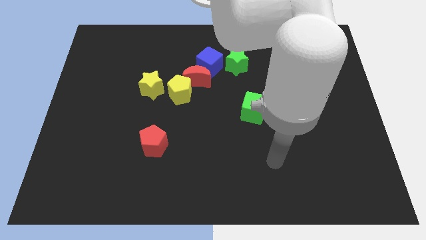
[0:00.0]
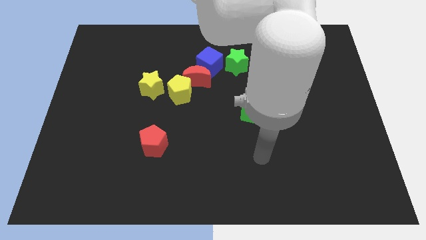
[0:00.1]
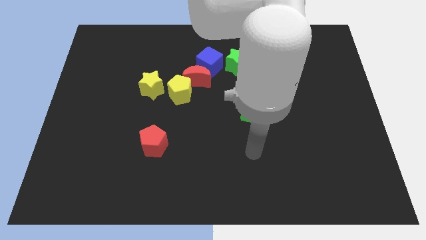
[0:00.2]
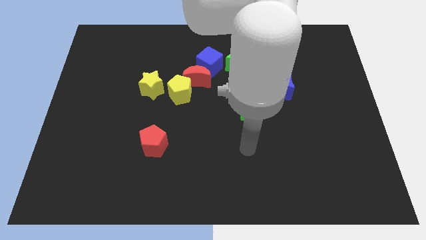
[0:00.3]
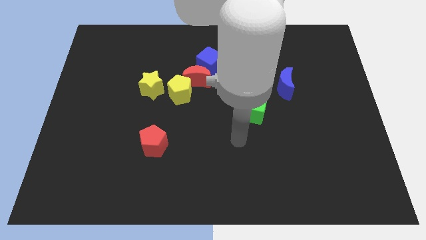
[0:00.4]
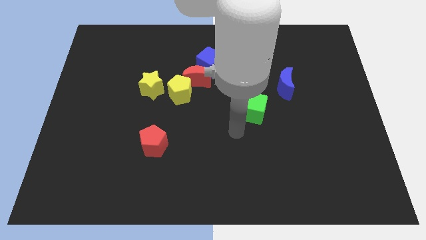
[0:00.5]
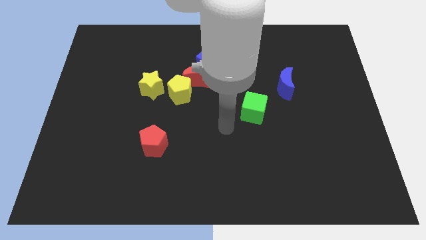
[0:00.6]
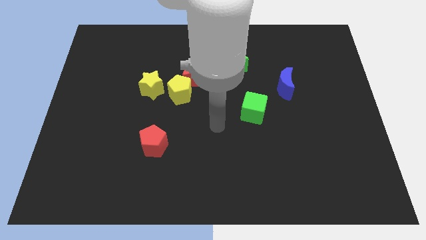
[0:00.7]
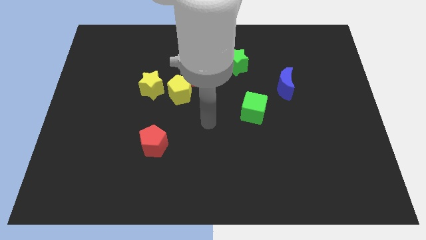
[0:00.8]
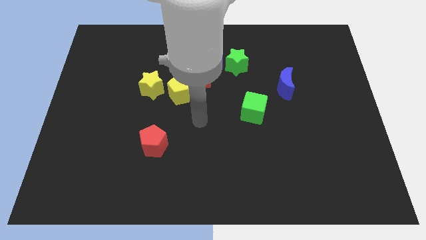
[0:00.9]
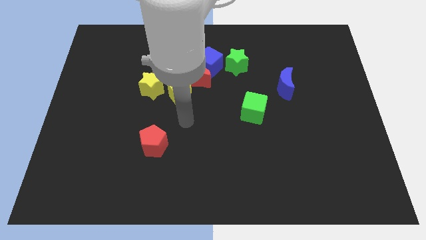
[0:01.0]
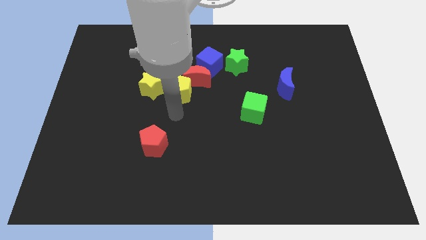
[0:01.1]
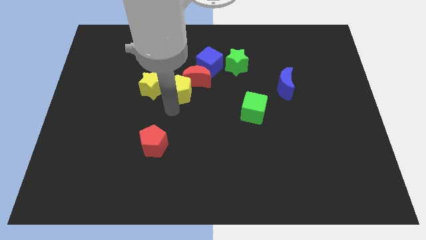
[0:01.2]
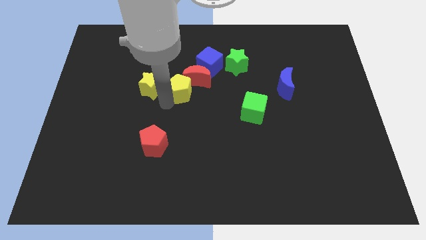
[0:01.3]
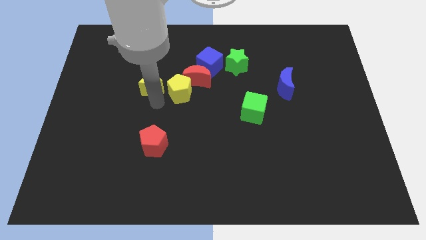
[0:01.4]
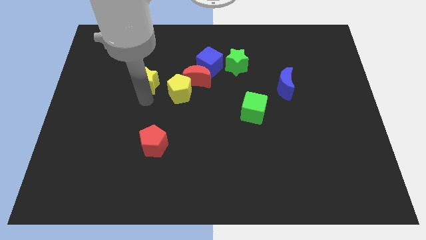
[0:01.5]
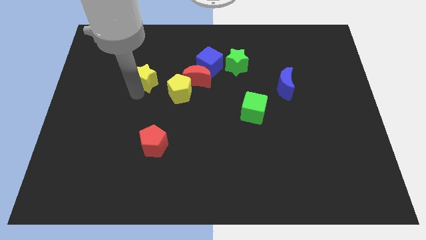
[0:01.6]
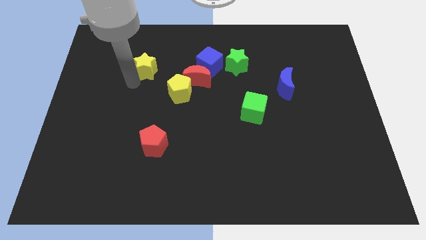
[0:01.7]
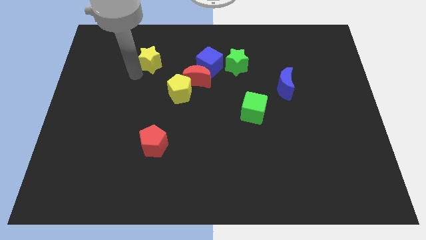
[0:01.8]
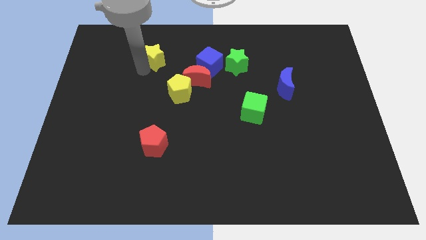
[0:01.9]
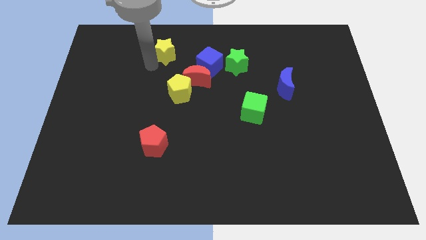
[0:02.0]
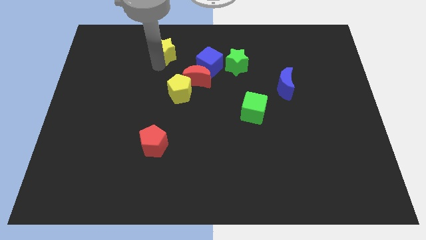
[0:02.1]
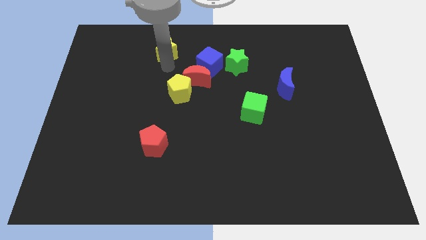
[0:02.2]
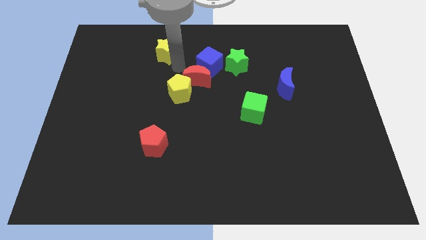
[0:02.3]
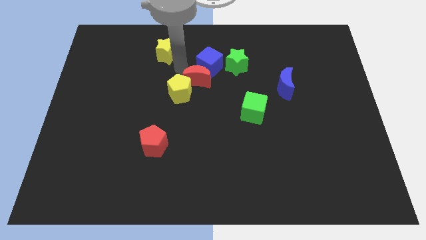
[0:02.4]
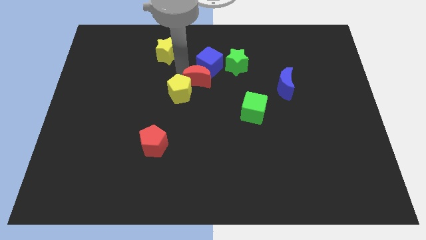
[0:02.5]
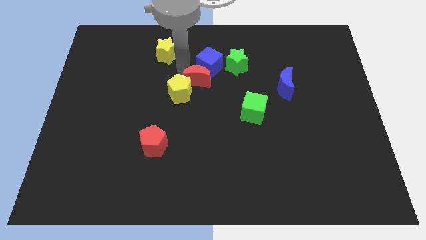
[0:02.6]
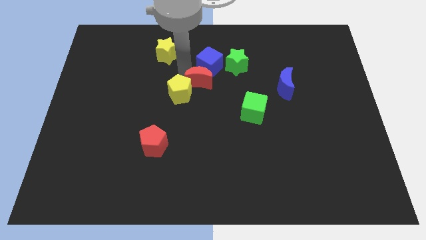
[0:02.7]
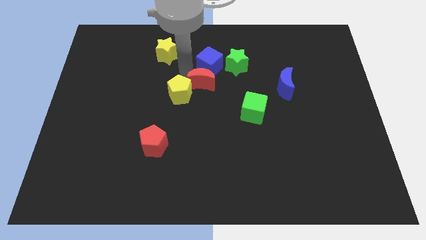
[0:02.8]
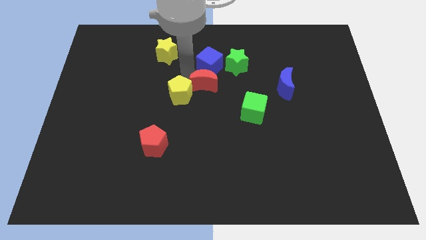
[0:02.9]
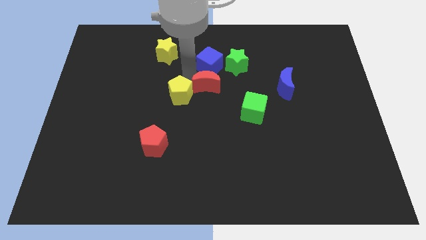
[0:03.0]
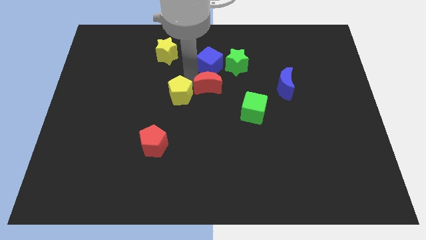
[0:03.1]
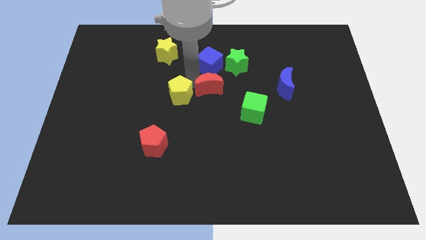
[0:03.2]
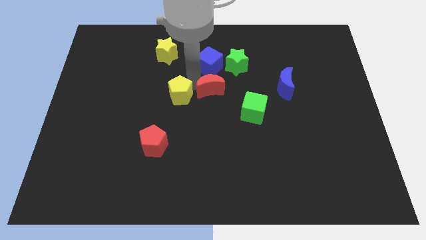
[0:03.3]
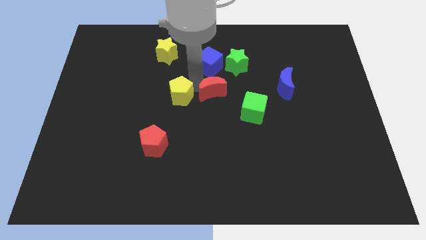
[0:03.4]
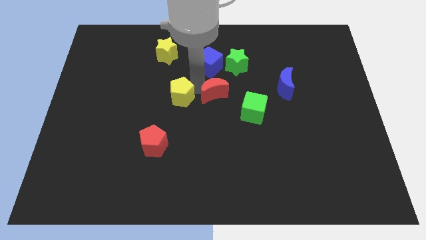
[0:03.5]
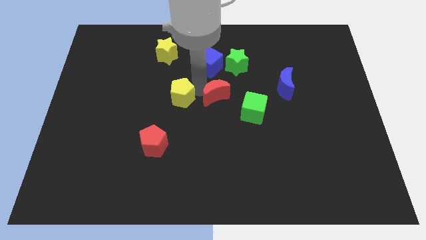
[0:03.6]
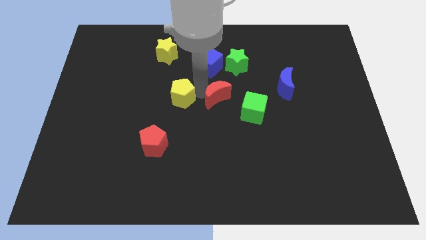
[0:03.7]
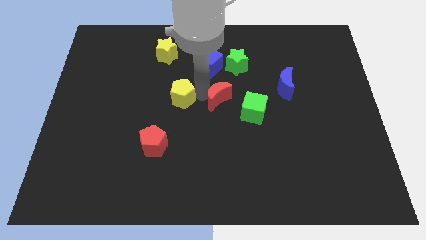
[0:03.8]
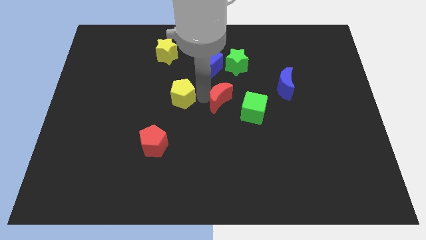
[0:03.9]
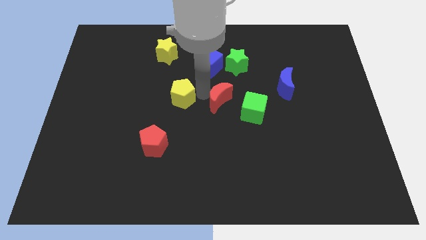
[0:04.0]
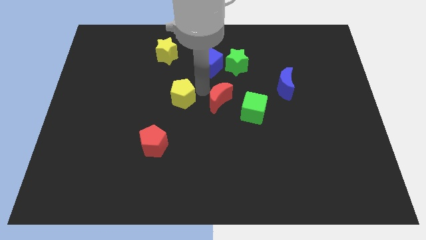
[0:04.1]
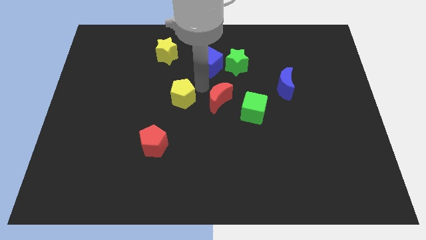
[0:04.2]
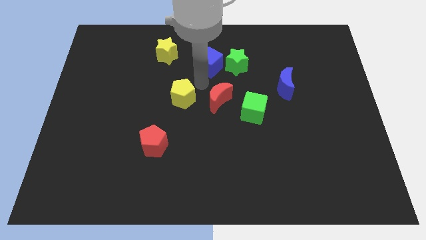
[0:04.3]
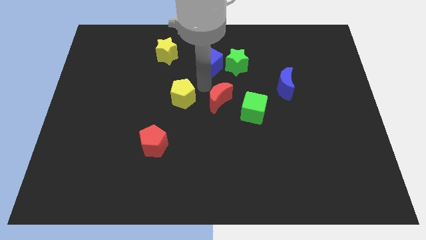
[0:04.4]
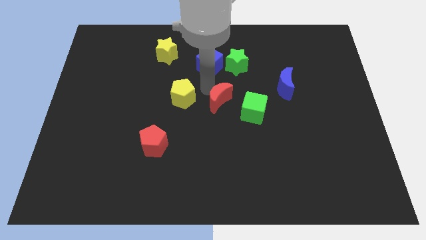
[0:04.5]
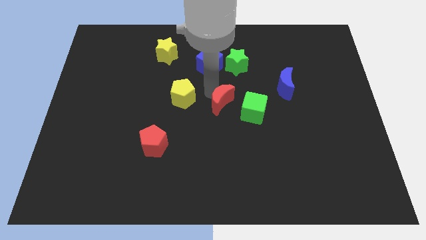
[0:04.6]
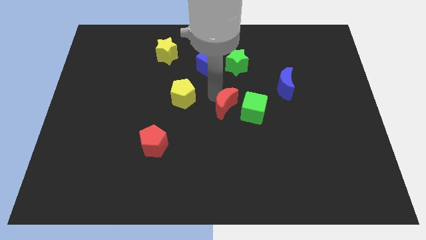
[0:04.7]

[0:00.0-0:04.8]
separate the red moon from the yellow pentagon and blue cube

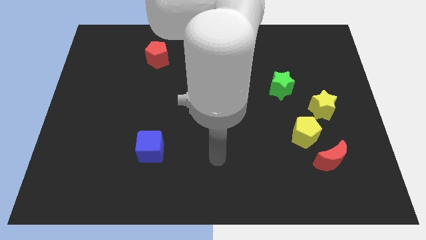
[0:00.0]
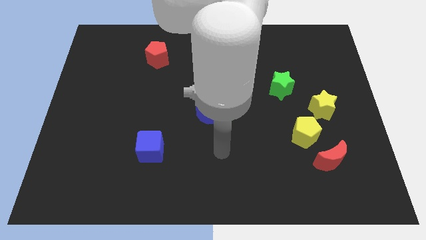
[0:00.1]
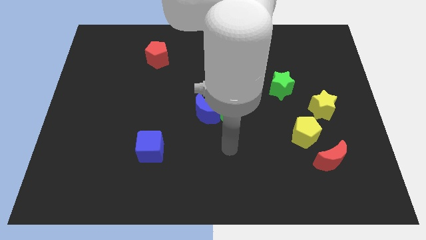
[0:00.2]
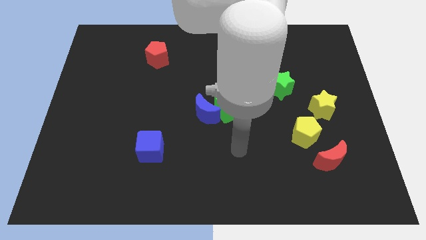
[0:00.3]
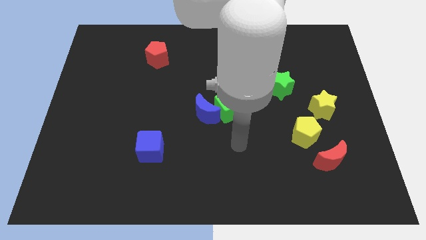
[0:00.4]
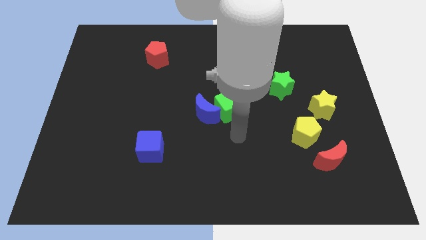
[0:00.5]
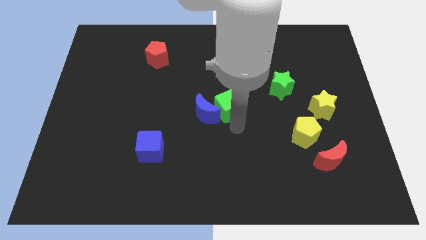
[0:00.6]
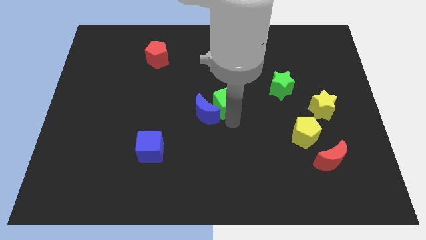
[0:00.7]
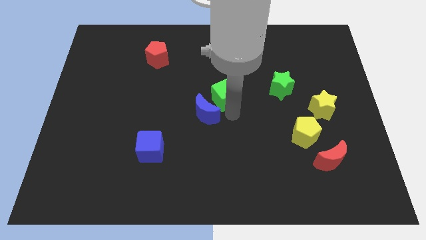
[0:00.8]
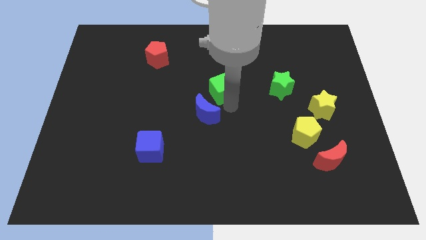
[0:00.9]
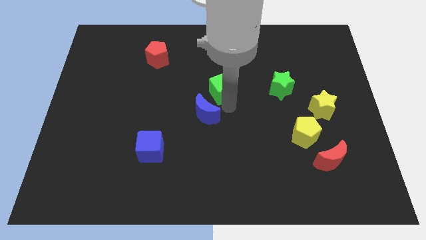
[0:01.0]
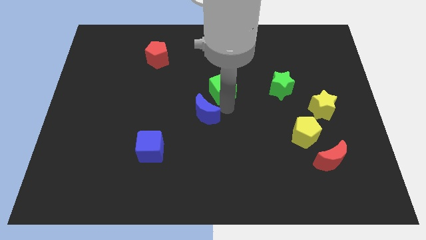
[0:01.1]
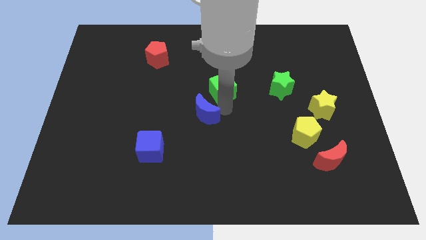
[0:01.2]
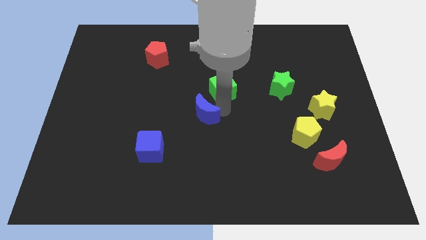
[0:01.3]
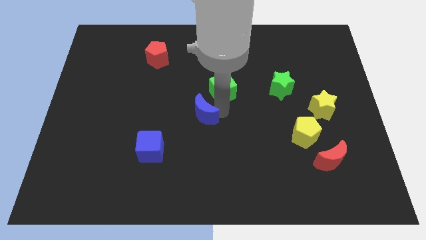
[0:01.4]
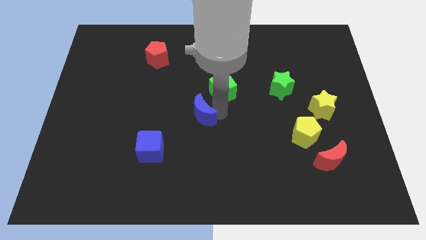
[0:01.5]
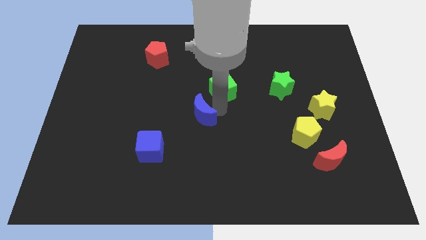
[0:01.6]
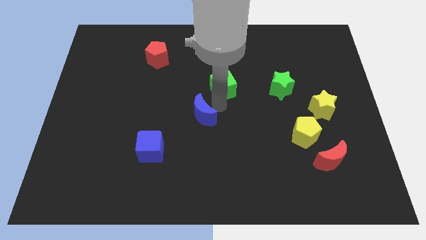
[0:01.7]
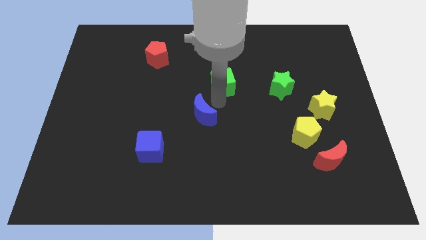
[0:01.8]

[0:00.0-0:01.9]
separate the blue moon from the green cube

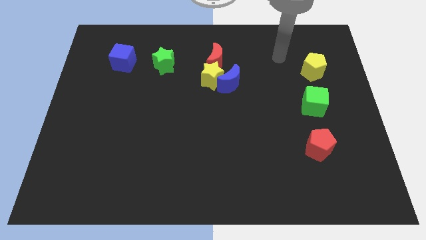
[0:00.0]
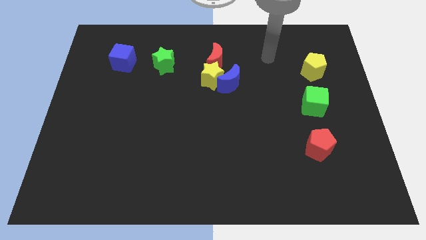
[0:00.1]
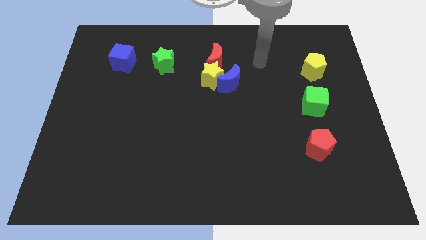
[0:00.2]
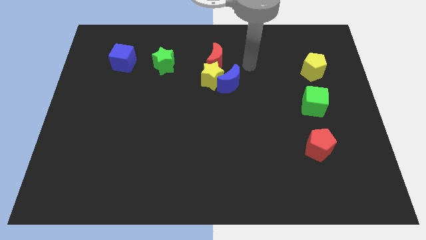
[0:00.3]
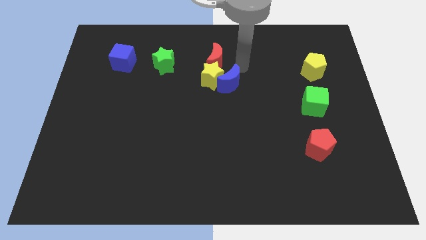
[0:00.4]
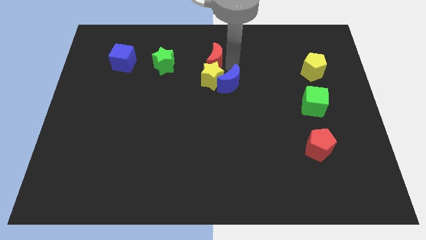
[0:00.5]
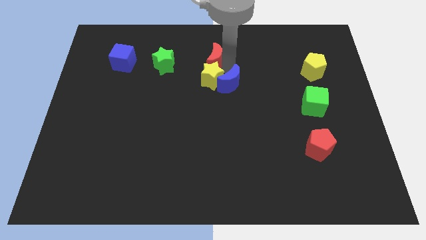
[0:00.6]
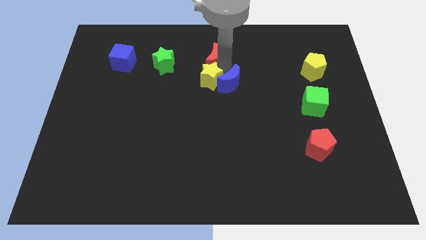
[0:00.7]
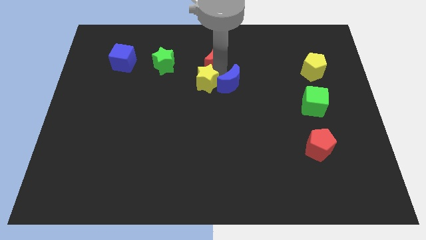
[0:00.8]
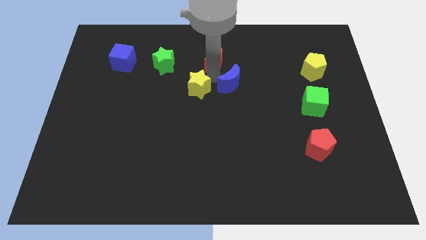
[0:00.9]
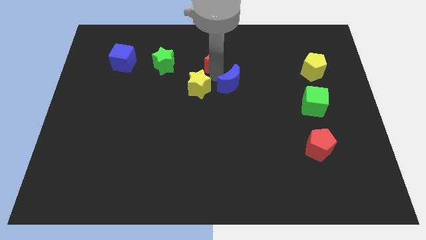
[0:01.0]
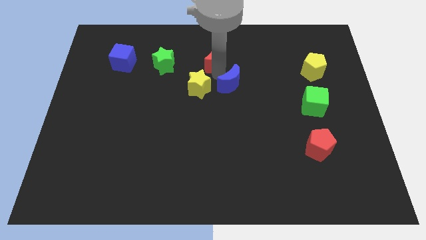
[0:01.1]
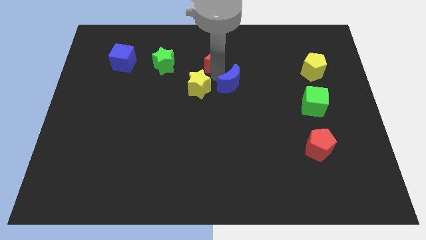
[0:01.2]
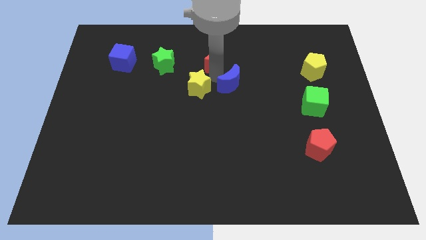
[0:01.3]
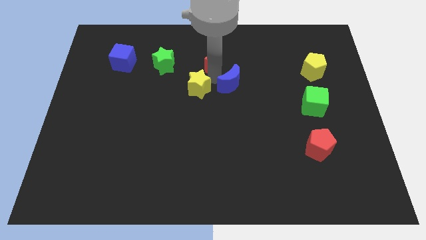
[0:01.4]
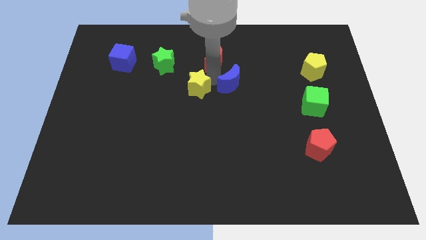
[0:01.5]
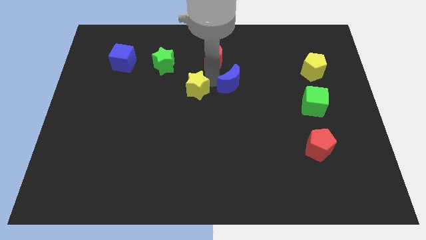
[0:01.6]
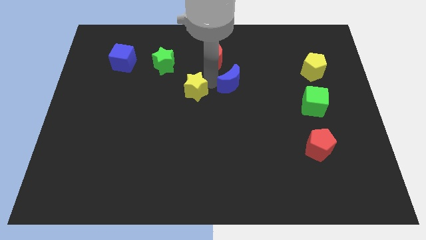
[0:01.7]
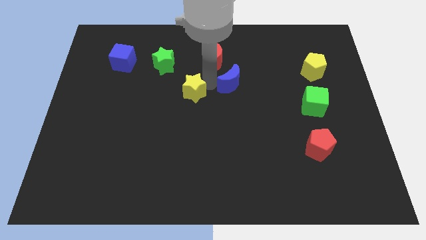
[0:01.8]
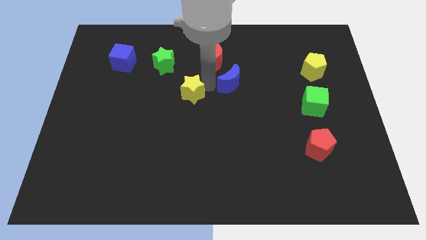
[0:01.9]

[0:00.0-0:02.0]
move the yellow star away from the blue moon and red moon

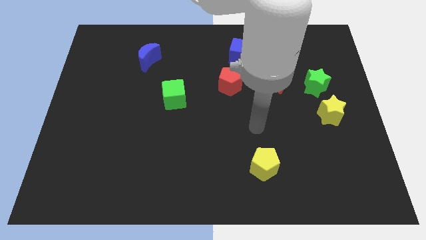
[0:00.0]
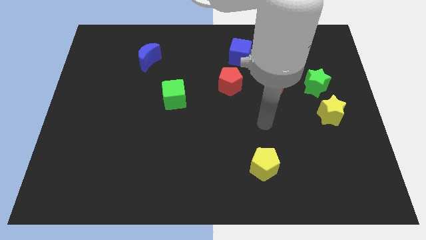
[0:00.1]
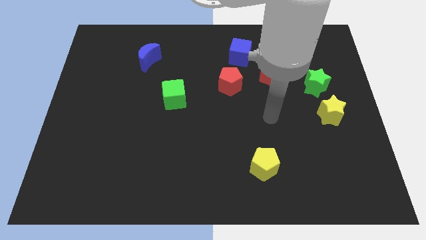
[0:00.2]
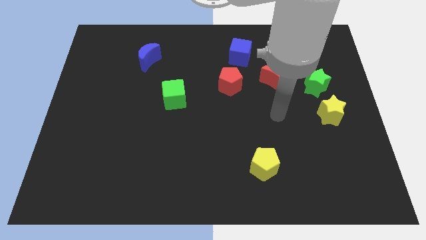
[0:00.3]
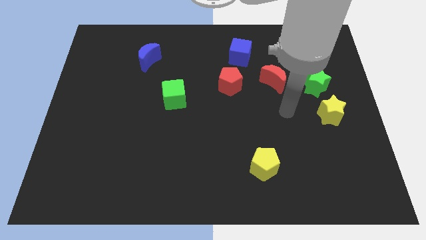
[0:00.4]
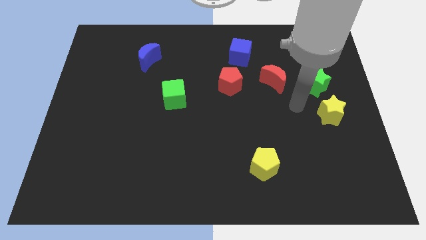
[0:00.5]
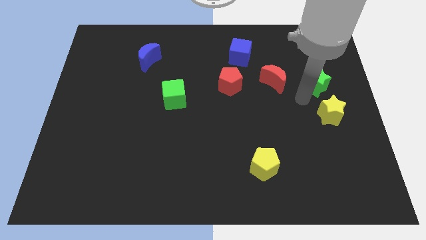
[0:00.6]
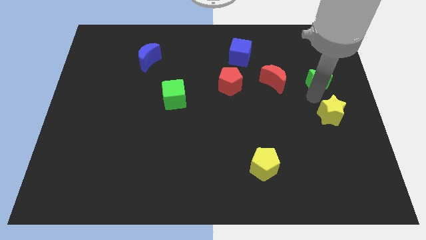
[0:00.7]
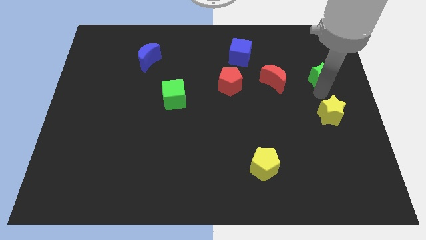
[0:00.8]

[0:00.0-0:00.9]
pull the yellow star apart from the green star
